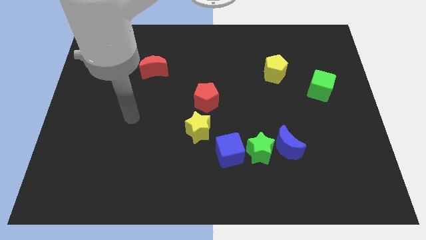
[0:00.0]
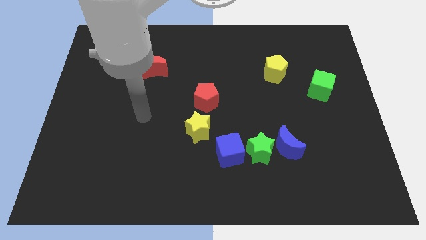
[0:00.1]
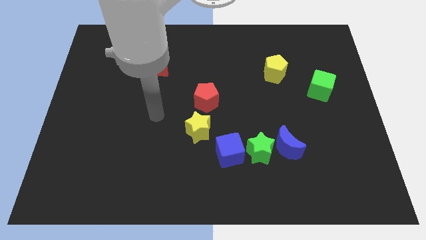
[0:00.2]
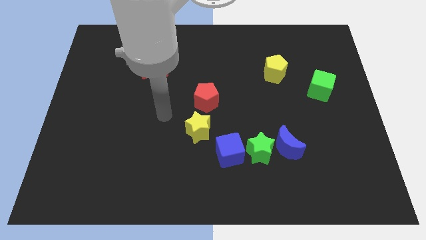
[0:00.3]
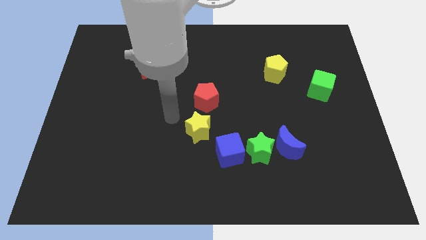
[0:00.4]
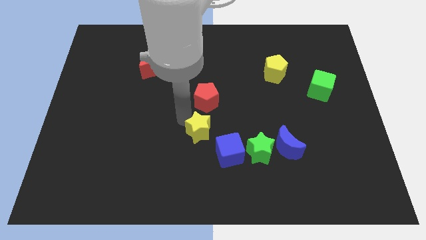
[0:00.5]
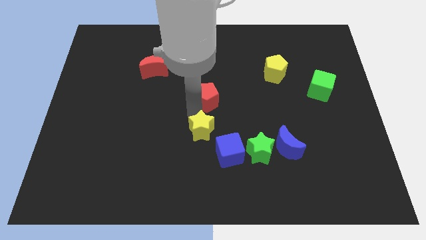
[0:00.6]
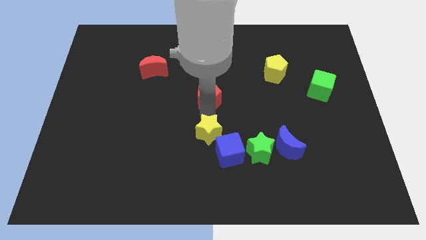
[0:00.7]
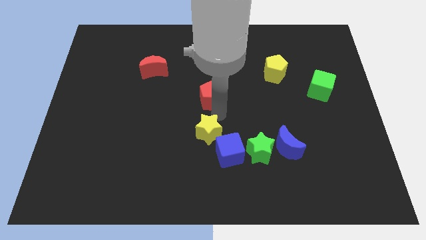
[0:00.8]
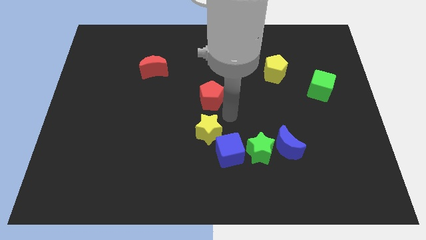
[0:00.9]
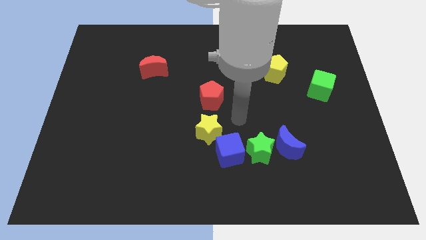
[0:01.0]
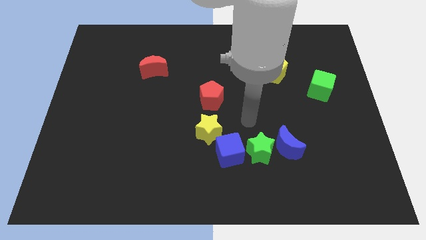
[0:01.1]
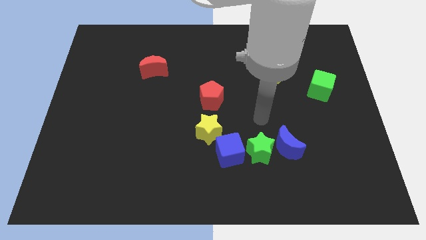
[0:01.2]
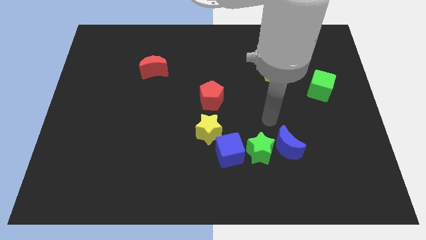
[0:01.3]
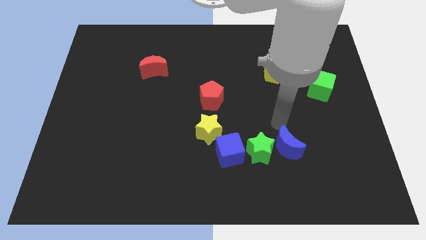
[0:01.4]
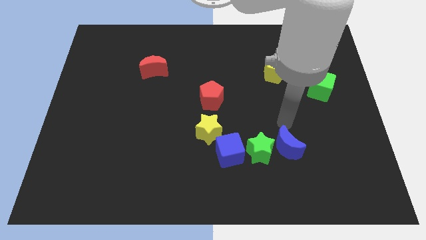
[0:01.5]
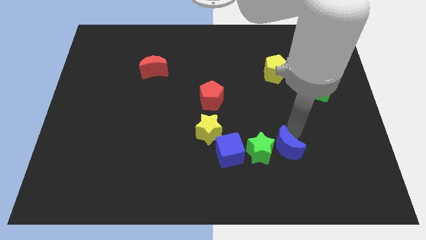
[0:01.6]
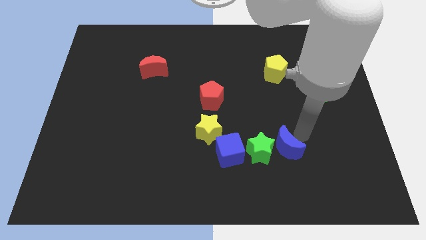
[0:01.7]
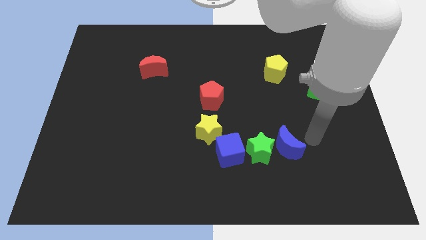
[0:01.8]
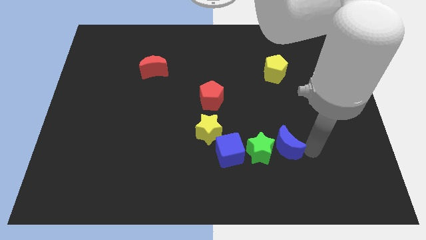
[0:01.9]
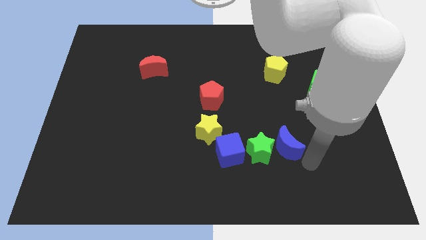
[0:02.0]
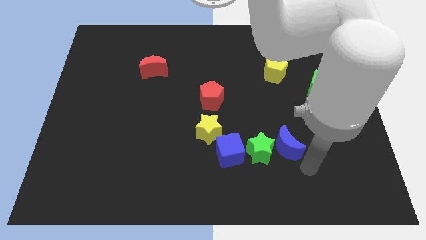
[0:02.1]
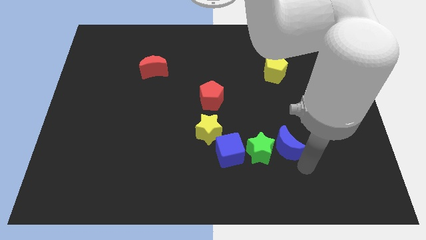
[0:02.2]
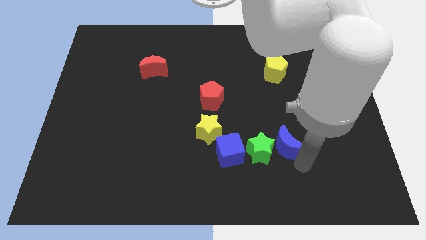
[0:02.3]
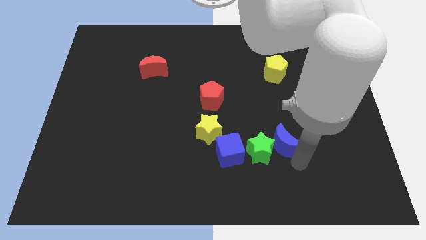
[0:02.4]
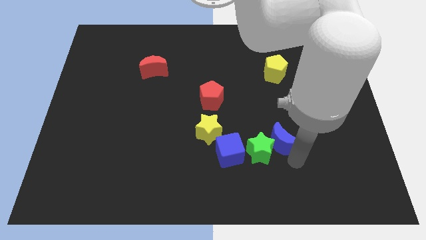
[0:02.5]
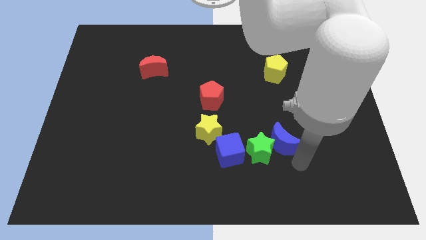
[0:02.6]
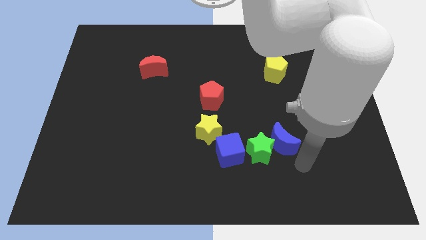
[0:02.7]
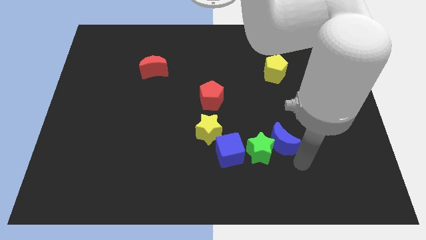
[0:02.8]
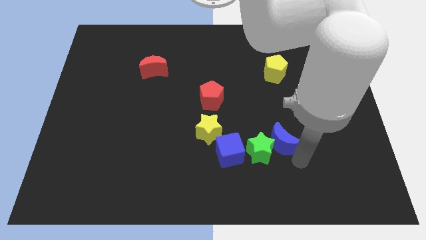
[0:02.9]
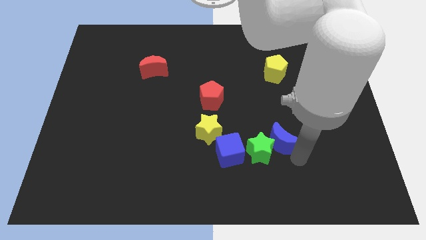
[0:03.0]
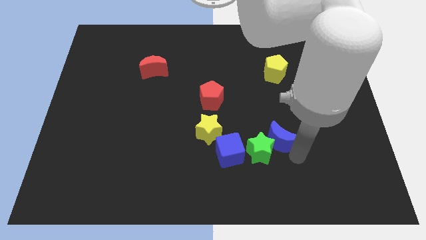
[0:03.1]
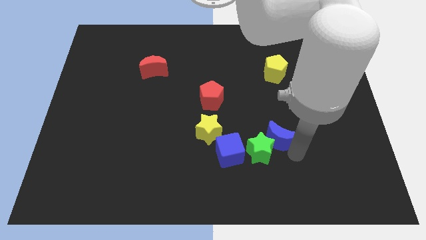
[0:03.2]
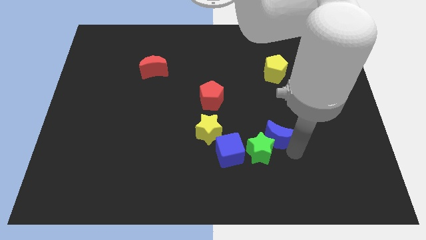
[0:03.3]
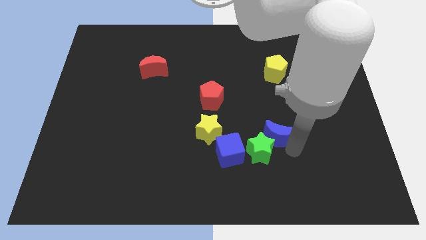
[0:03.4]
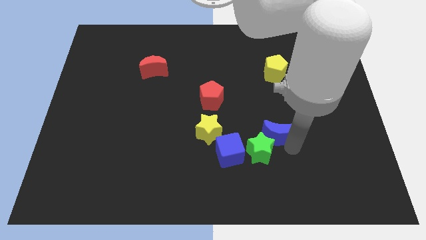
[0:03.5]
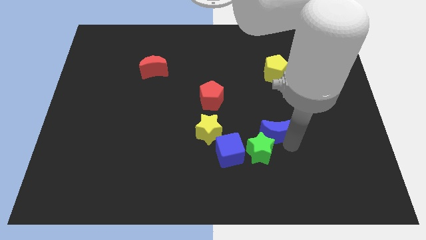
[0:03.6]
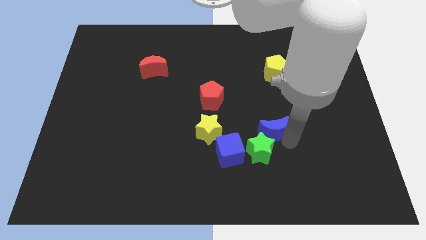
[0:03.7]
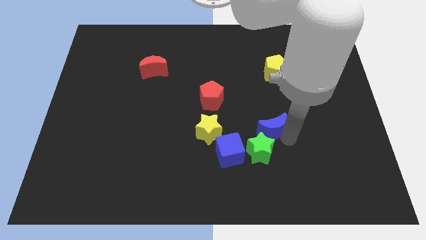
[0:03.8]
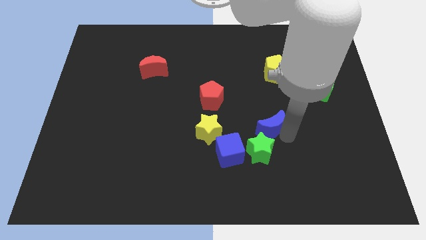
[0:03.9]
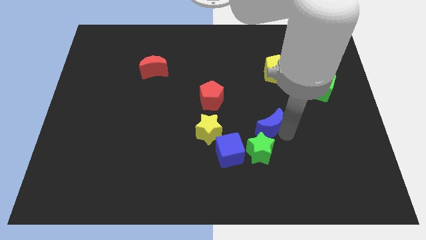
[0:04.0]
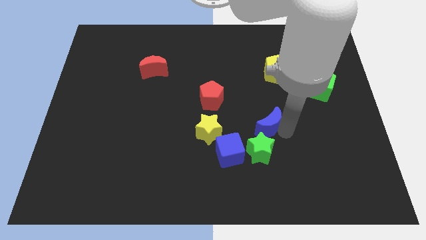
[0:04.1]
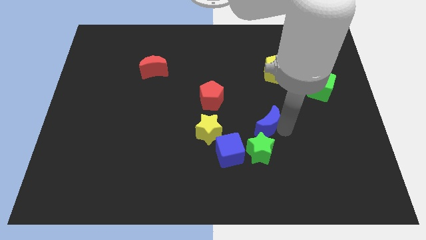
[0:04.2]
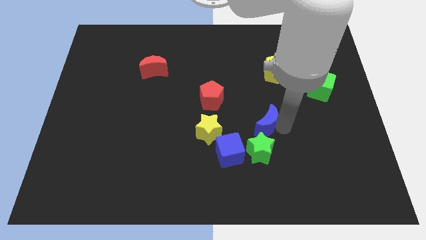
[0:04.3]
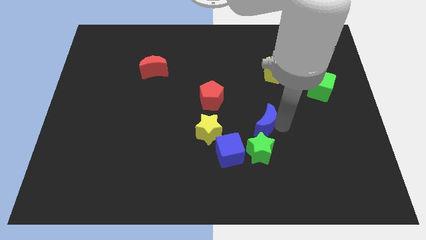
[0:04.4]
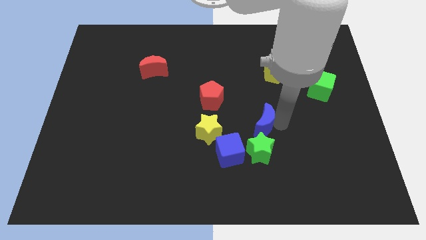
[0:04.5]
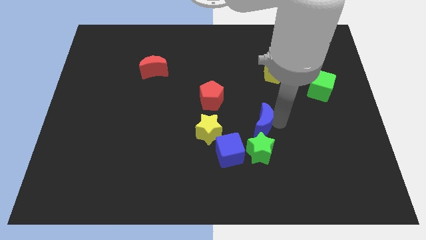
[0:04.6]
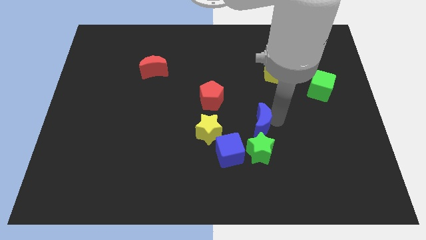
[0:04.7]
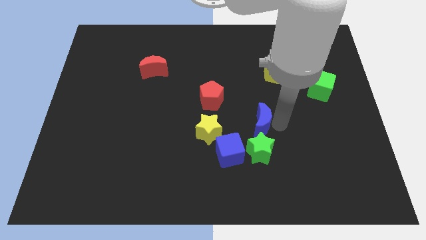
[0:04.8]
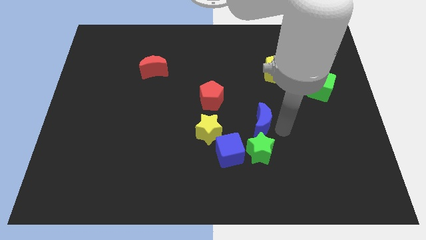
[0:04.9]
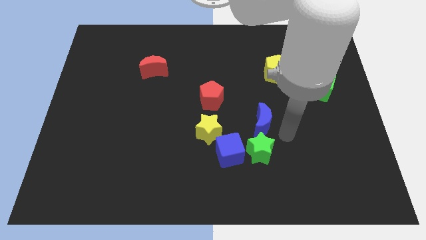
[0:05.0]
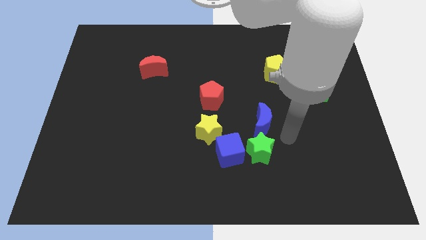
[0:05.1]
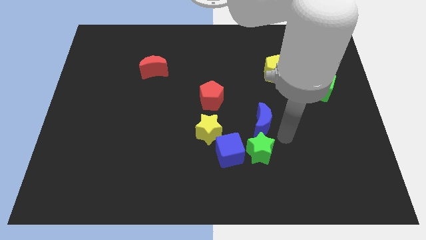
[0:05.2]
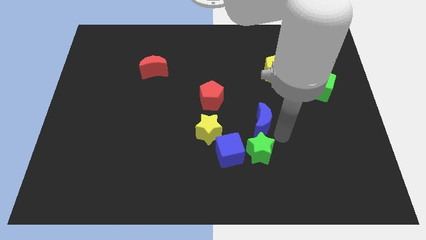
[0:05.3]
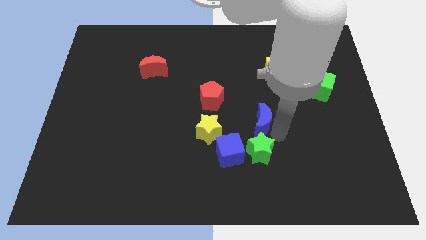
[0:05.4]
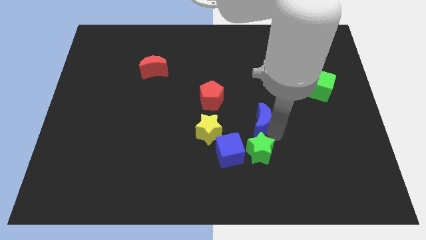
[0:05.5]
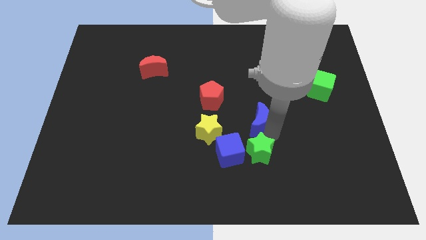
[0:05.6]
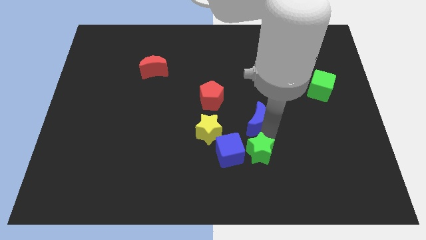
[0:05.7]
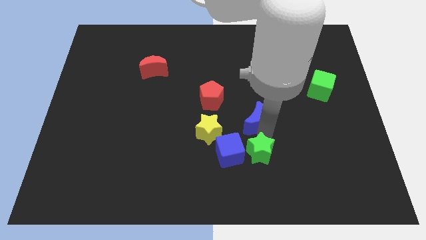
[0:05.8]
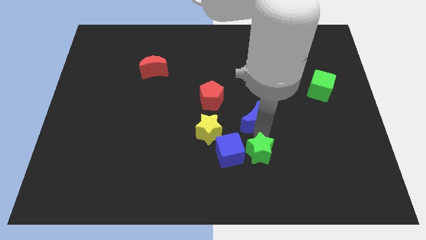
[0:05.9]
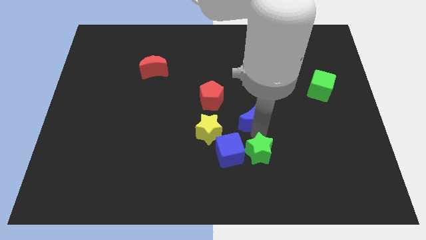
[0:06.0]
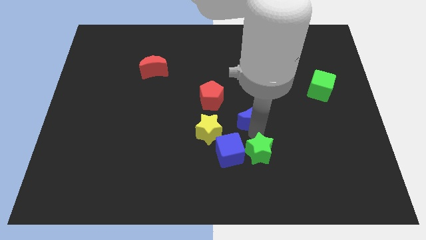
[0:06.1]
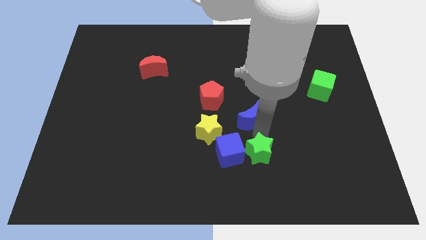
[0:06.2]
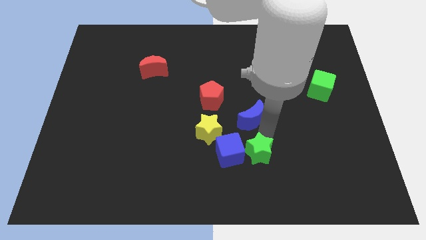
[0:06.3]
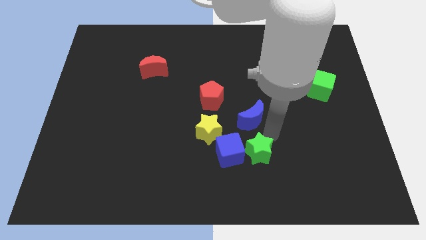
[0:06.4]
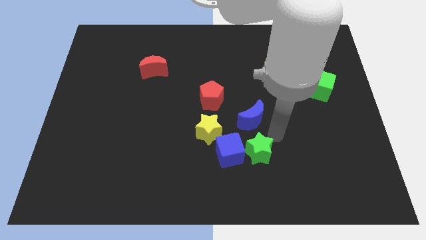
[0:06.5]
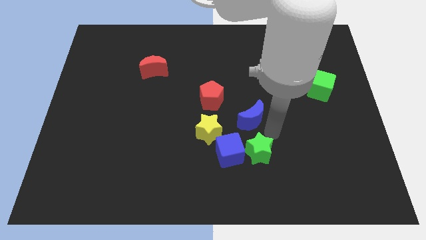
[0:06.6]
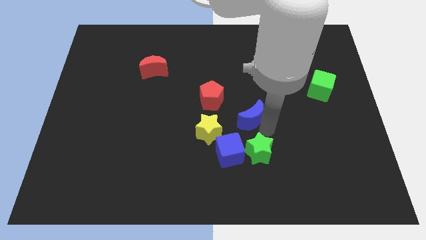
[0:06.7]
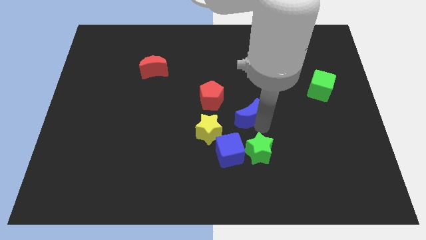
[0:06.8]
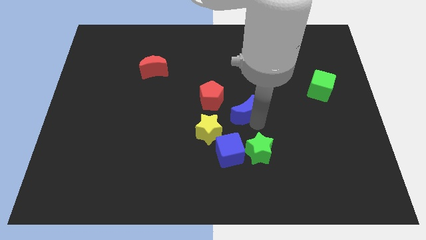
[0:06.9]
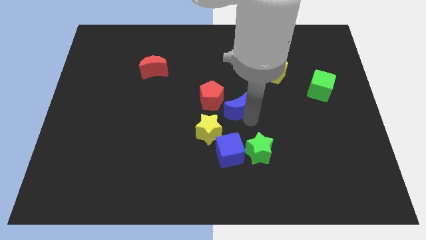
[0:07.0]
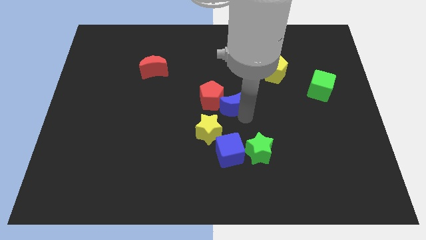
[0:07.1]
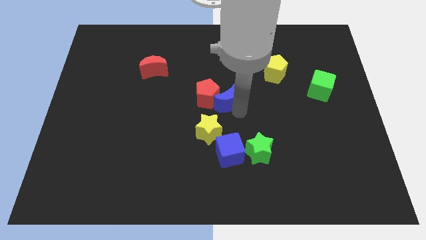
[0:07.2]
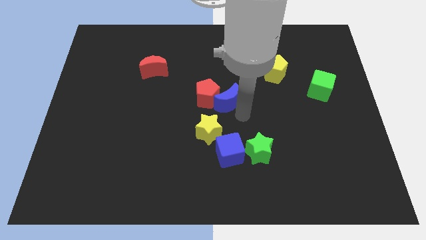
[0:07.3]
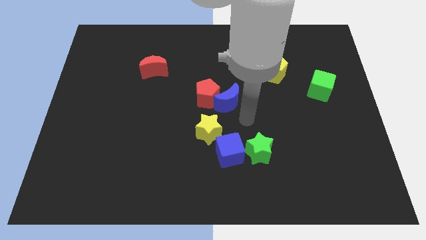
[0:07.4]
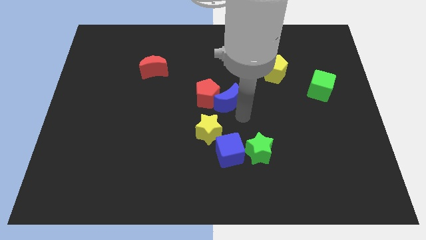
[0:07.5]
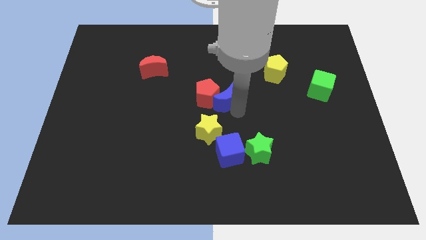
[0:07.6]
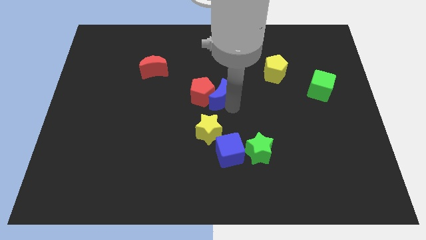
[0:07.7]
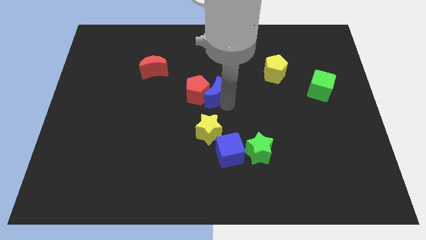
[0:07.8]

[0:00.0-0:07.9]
push the blue moon upwards and to the left diagonally
